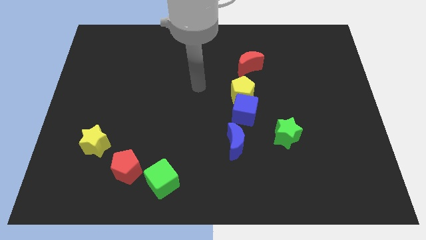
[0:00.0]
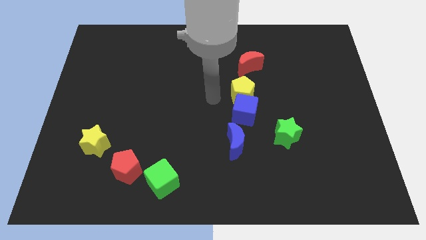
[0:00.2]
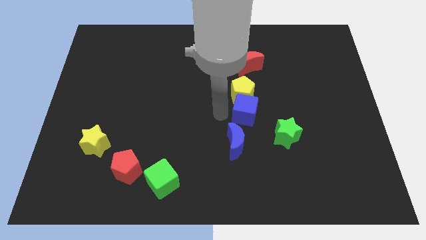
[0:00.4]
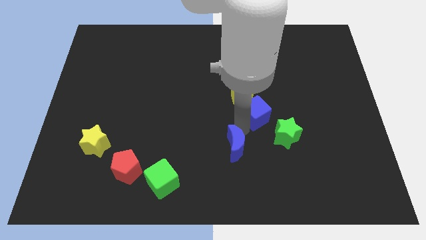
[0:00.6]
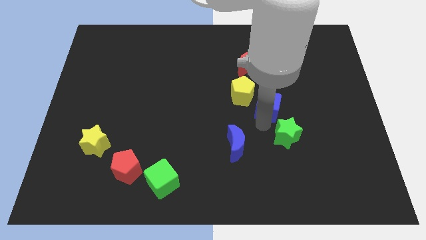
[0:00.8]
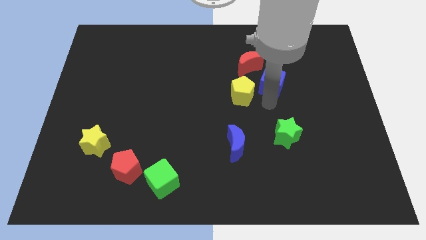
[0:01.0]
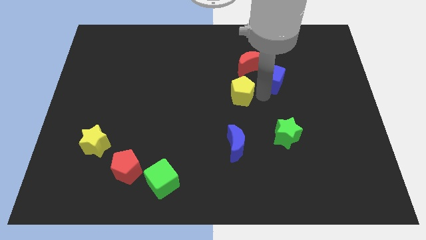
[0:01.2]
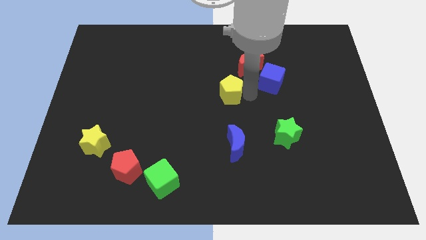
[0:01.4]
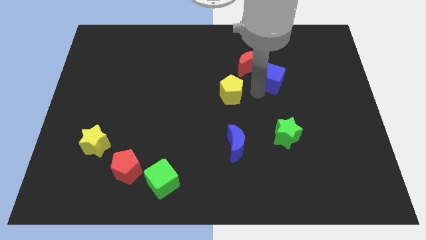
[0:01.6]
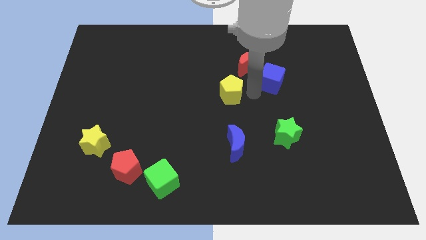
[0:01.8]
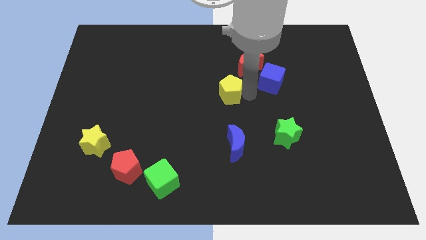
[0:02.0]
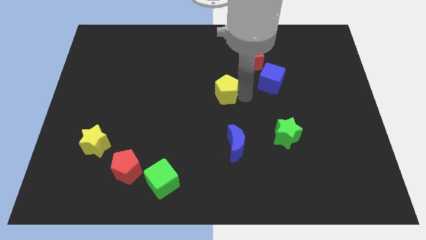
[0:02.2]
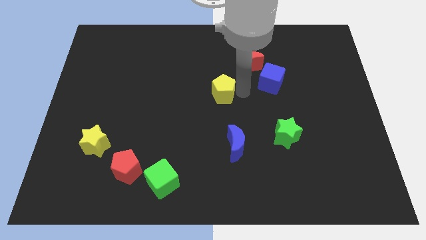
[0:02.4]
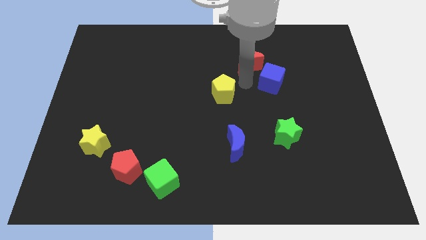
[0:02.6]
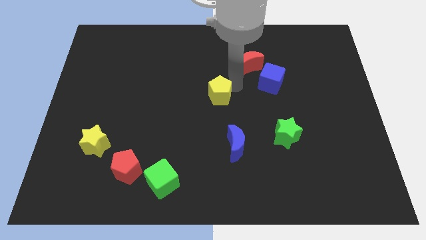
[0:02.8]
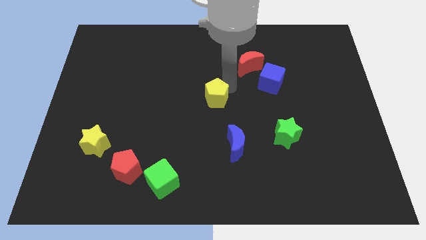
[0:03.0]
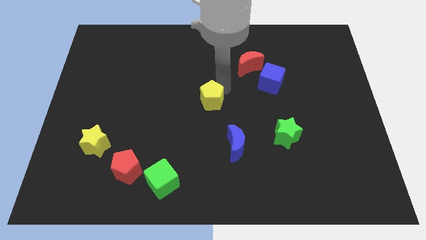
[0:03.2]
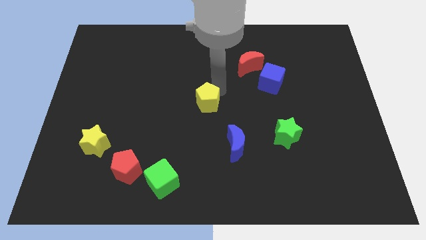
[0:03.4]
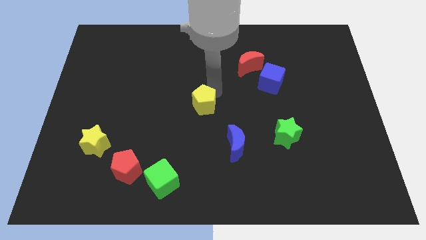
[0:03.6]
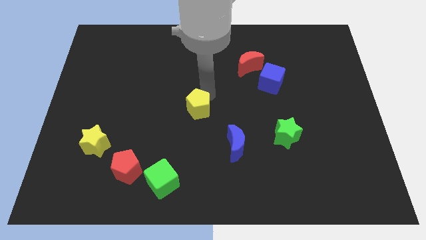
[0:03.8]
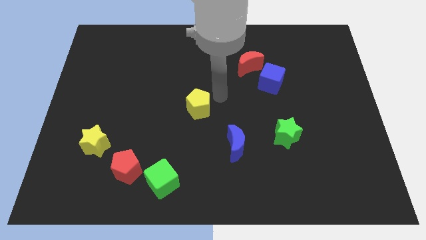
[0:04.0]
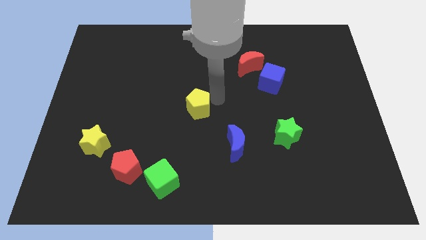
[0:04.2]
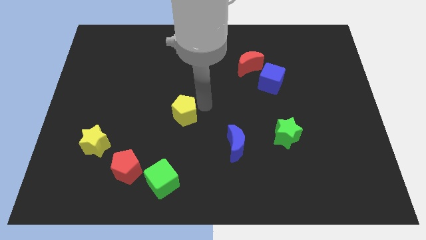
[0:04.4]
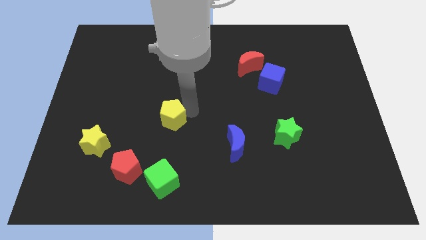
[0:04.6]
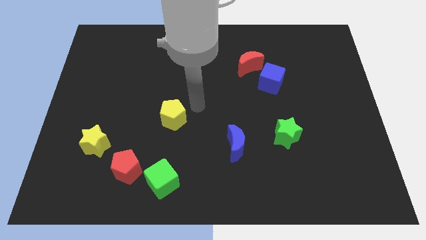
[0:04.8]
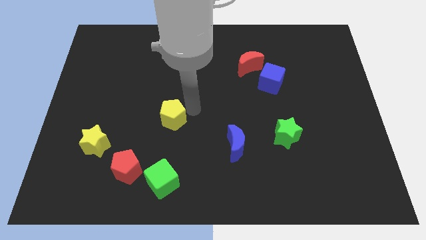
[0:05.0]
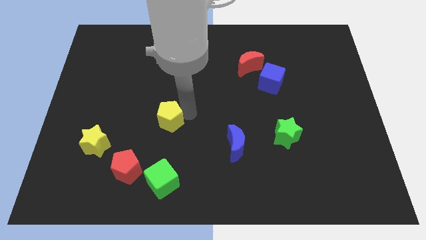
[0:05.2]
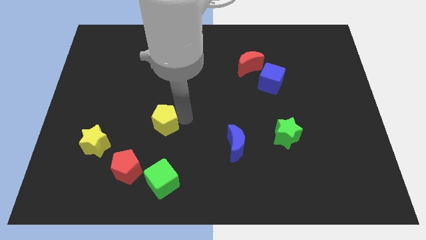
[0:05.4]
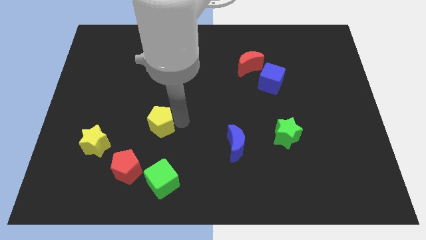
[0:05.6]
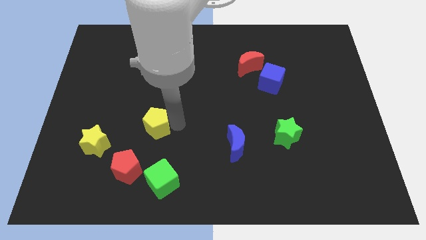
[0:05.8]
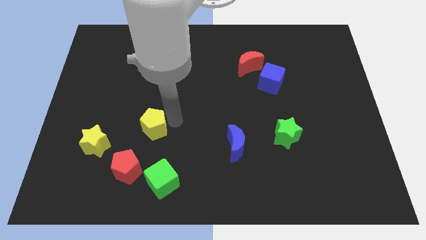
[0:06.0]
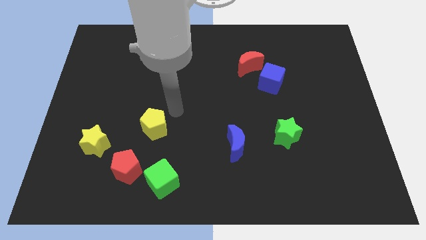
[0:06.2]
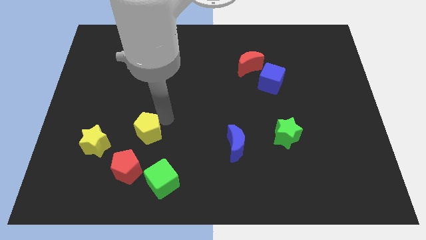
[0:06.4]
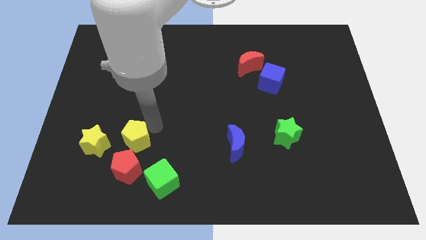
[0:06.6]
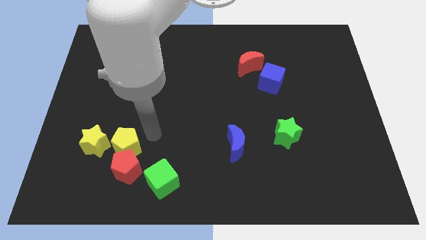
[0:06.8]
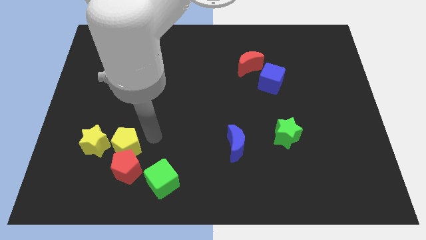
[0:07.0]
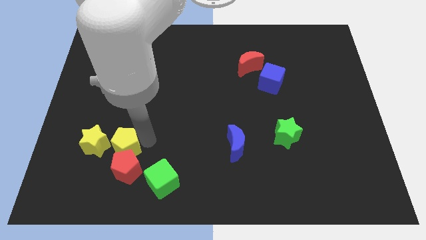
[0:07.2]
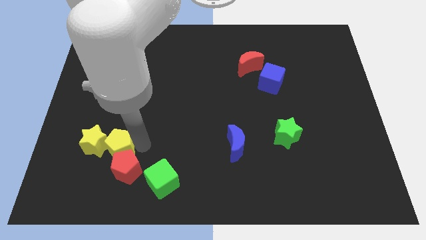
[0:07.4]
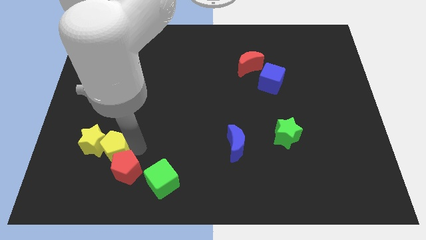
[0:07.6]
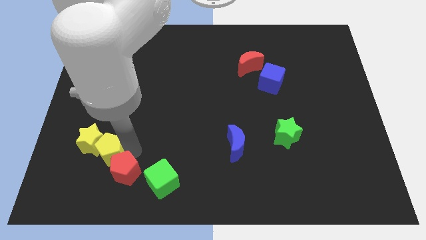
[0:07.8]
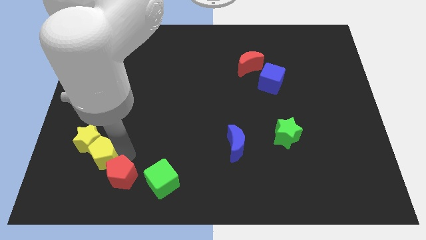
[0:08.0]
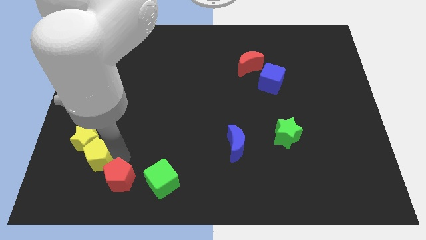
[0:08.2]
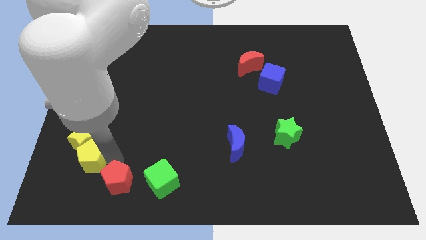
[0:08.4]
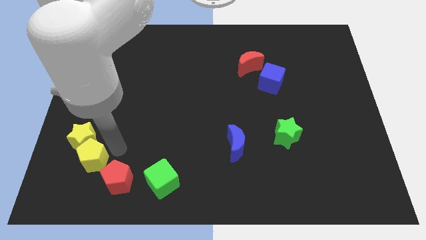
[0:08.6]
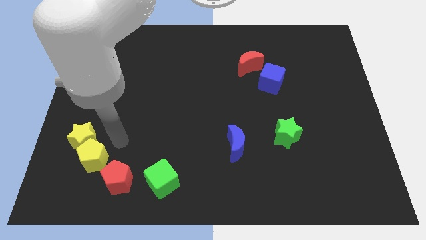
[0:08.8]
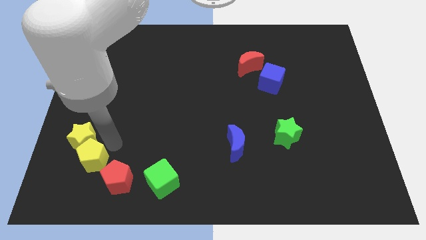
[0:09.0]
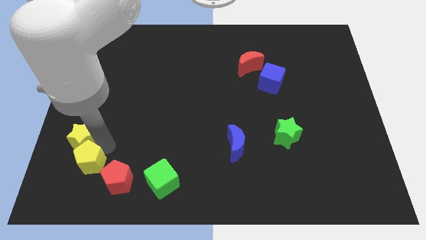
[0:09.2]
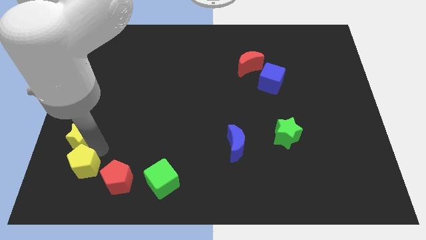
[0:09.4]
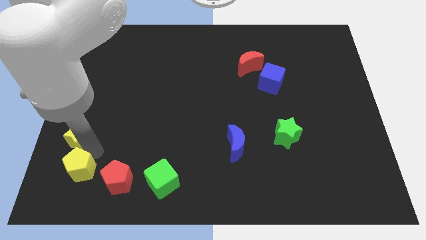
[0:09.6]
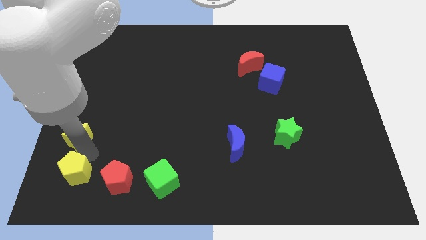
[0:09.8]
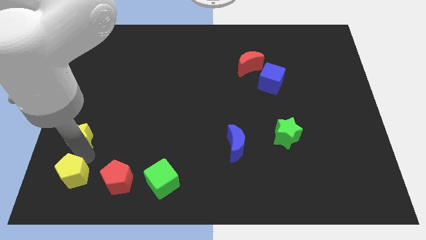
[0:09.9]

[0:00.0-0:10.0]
move the yellow pentagon to the bottom left

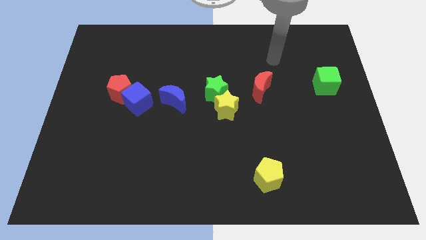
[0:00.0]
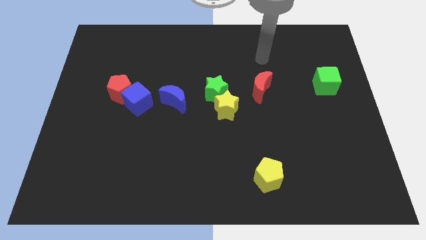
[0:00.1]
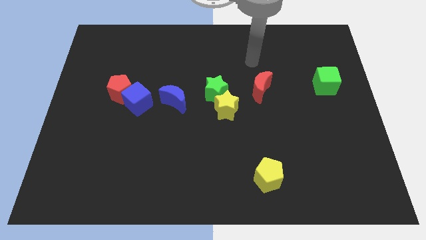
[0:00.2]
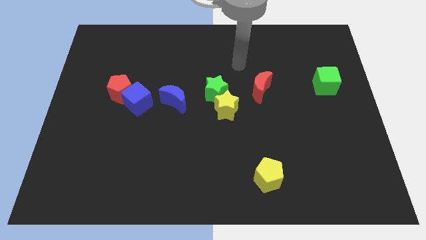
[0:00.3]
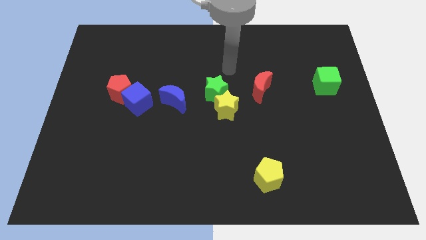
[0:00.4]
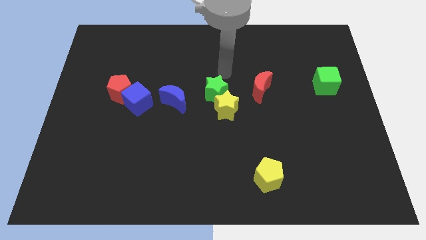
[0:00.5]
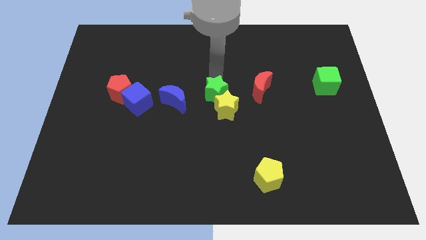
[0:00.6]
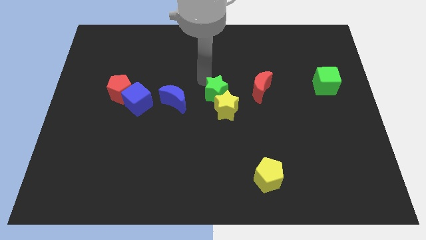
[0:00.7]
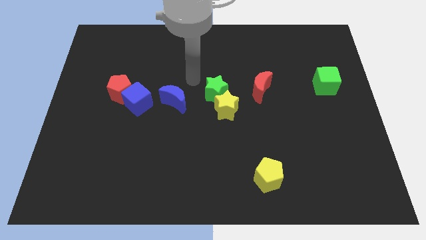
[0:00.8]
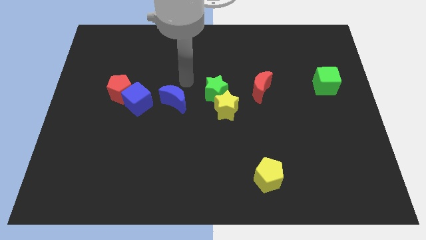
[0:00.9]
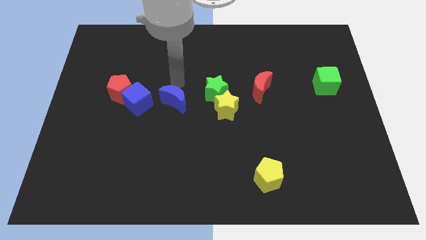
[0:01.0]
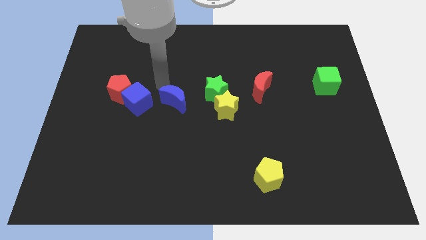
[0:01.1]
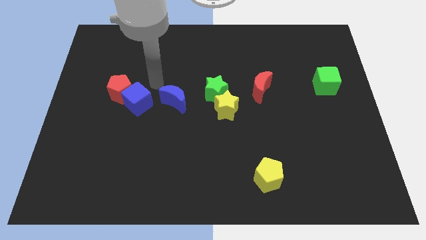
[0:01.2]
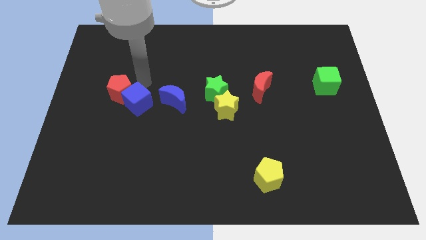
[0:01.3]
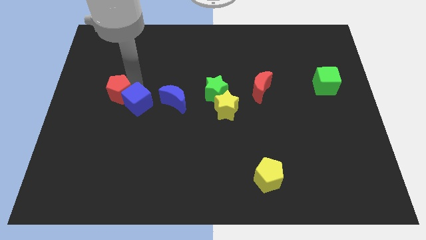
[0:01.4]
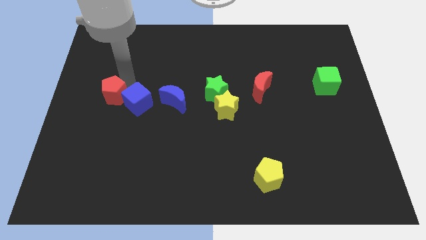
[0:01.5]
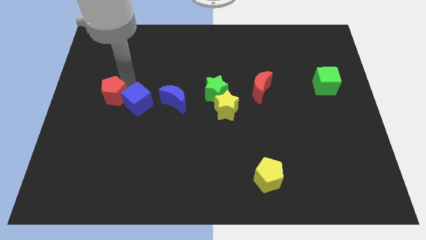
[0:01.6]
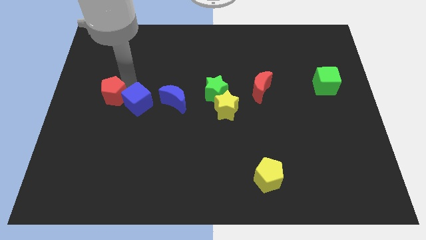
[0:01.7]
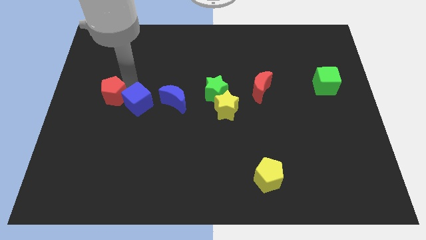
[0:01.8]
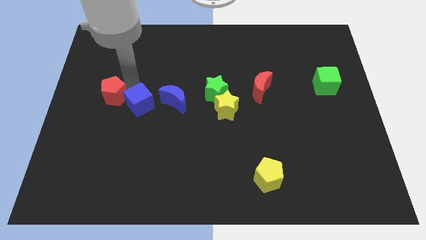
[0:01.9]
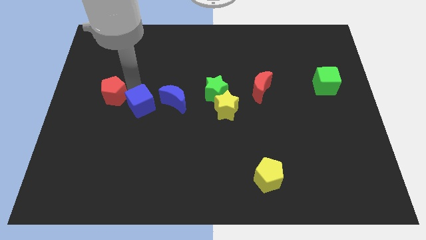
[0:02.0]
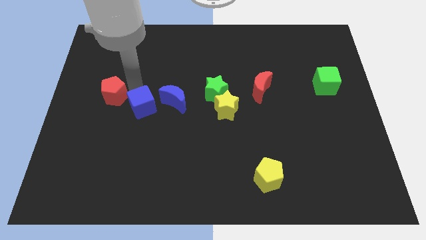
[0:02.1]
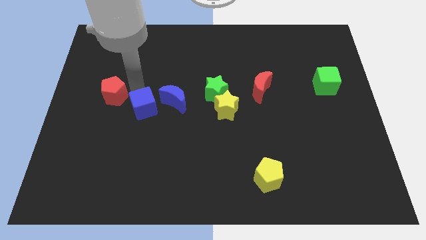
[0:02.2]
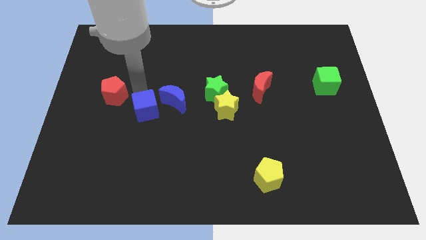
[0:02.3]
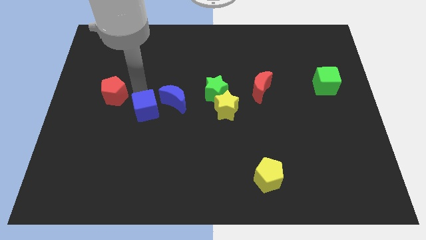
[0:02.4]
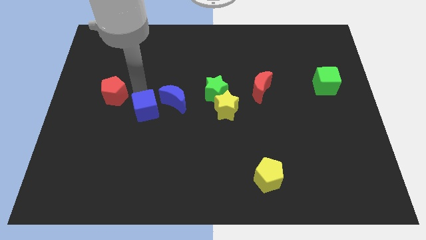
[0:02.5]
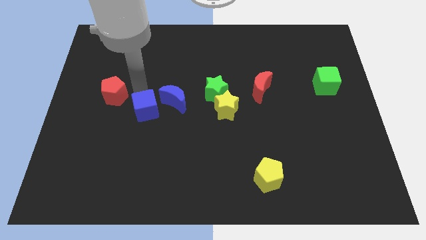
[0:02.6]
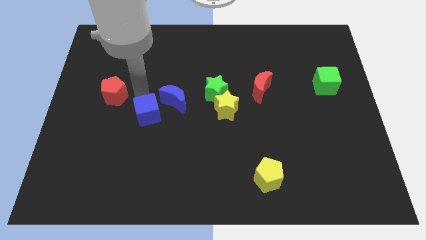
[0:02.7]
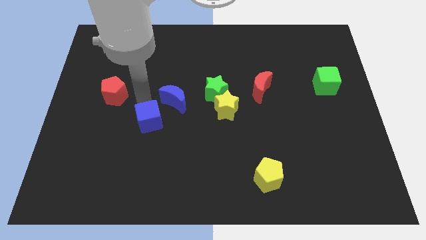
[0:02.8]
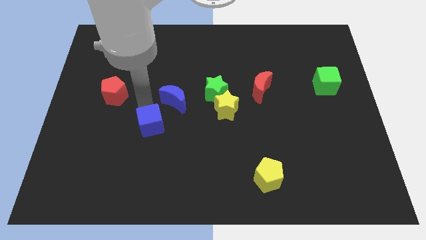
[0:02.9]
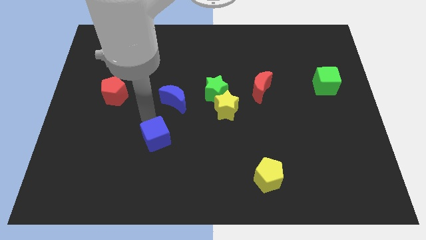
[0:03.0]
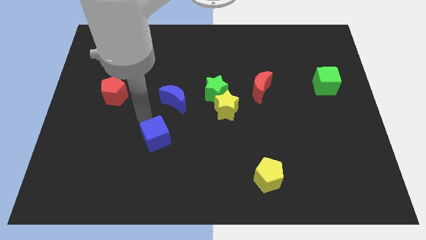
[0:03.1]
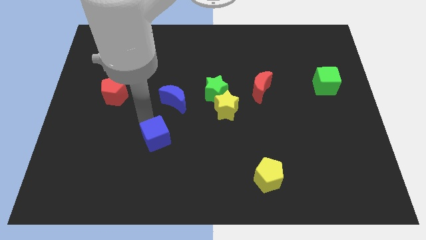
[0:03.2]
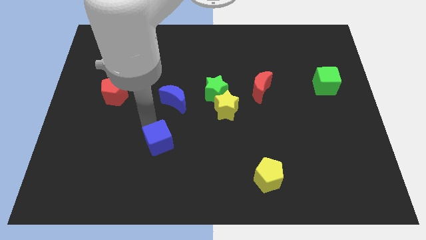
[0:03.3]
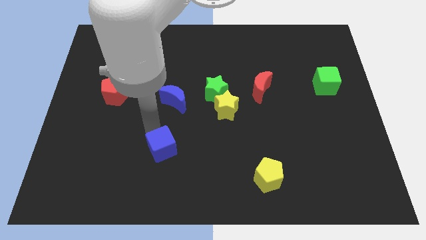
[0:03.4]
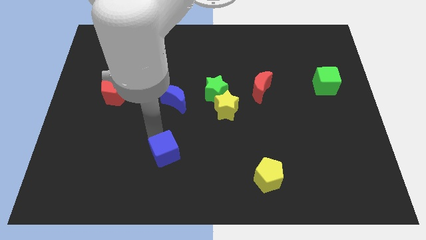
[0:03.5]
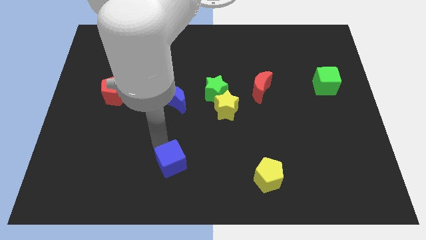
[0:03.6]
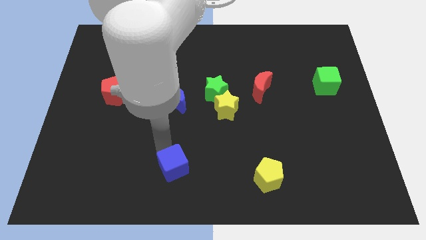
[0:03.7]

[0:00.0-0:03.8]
push the blue cube to the bottom side
